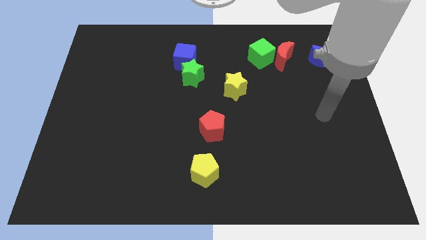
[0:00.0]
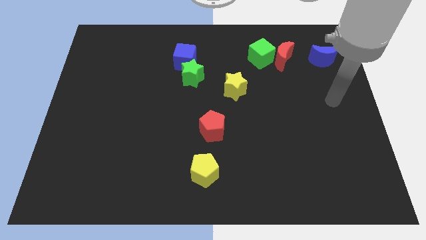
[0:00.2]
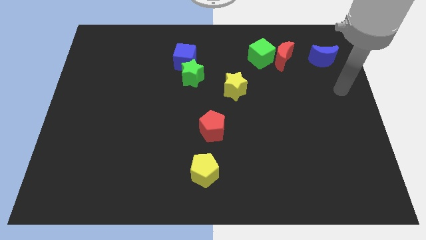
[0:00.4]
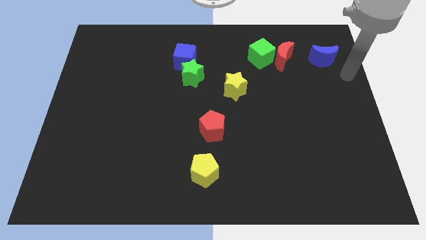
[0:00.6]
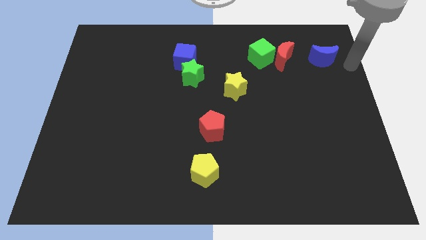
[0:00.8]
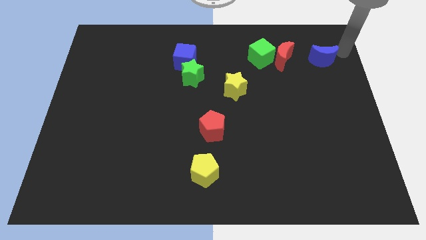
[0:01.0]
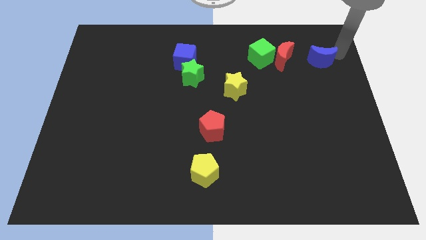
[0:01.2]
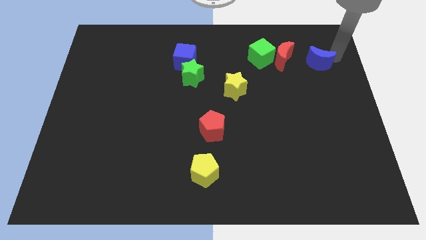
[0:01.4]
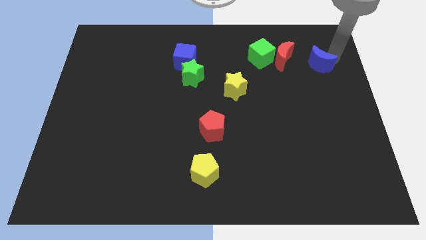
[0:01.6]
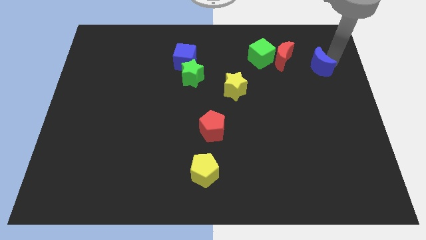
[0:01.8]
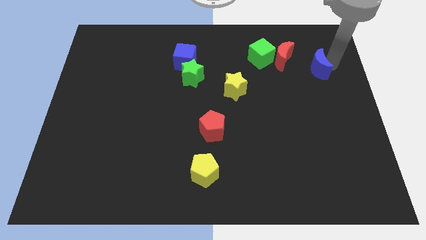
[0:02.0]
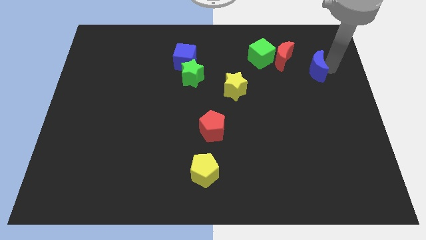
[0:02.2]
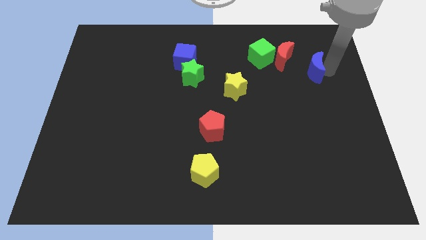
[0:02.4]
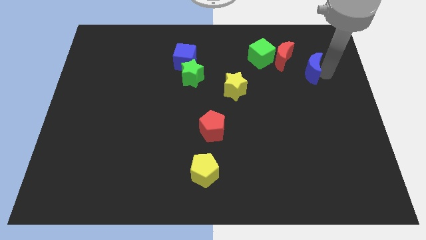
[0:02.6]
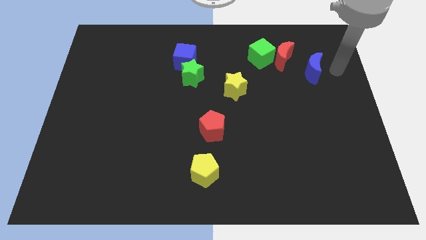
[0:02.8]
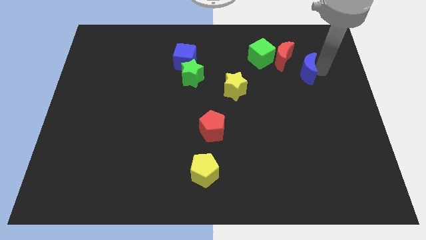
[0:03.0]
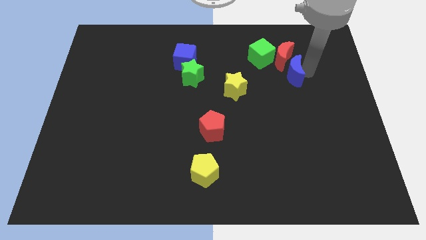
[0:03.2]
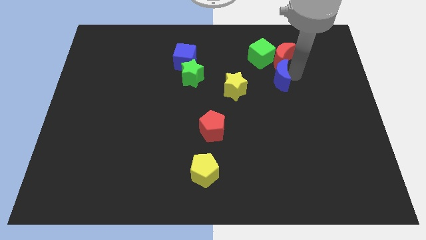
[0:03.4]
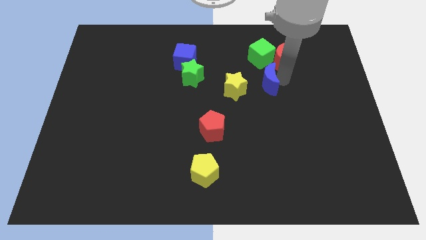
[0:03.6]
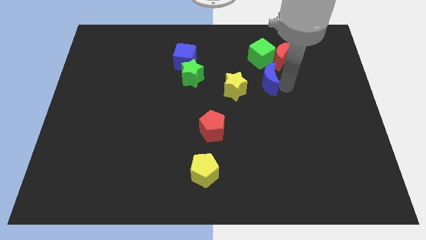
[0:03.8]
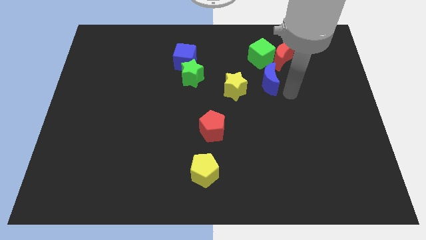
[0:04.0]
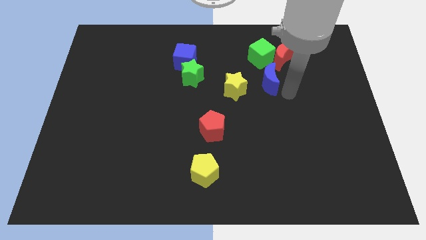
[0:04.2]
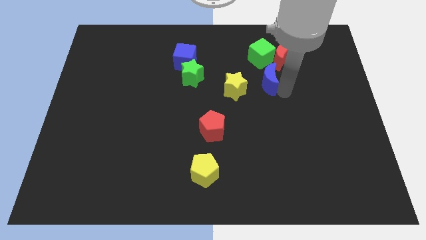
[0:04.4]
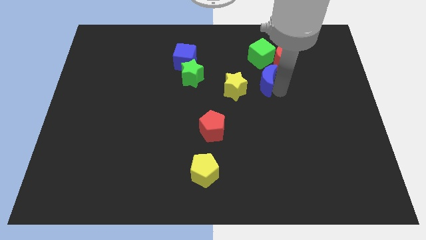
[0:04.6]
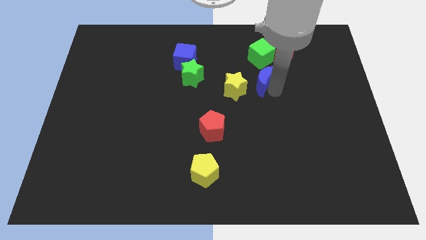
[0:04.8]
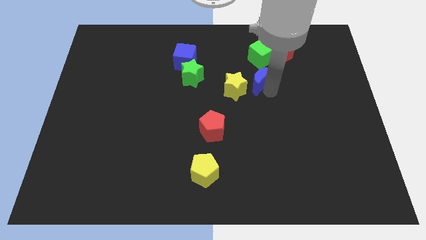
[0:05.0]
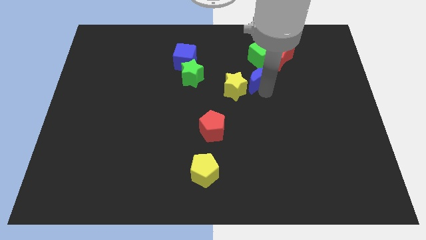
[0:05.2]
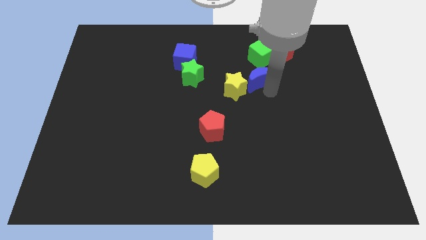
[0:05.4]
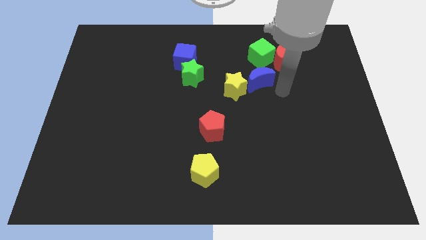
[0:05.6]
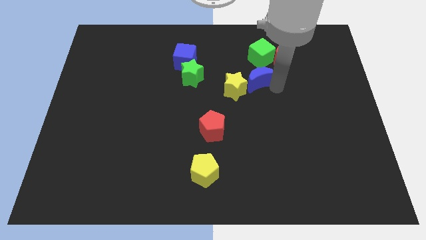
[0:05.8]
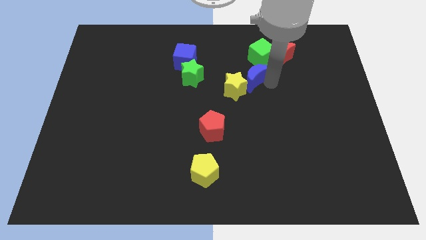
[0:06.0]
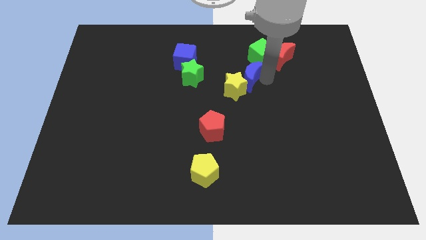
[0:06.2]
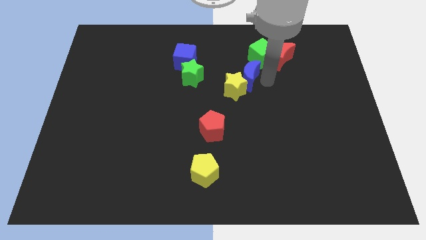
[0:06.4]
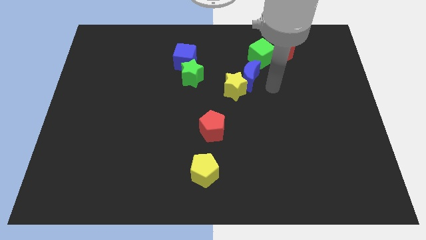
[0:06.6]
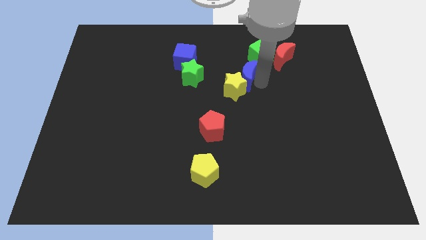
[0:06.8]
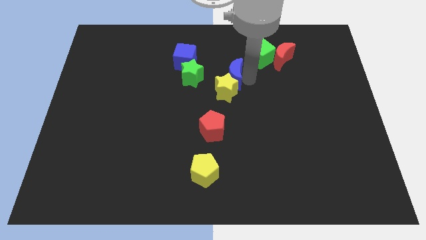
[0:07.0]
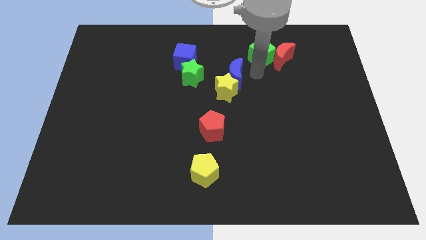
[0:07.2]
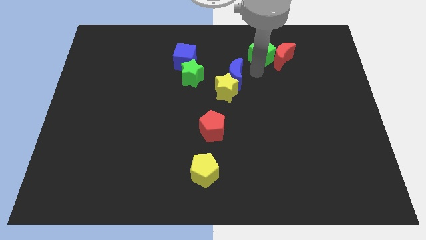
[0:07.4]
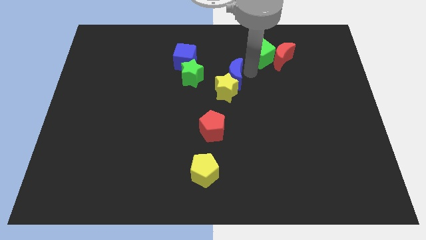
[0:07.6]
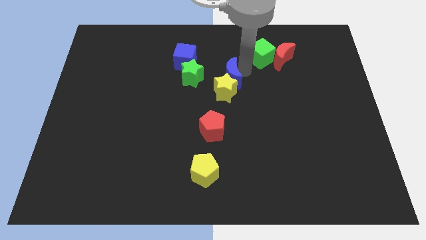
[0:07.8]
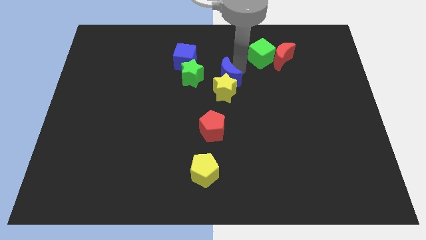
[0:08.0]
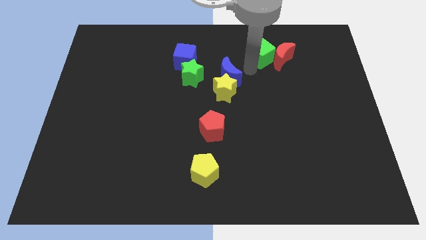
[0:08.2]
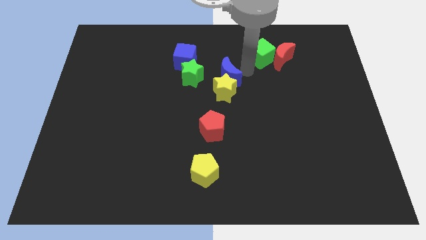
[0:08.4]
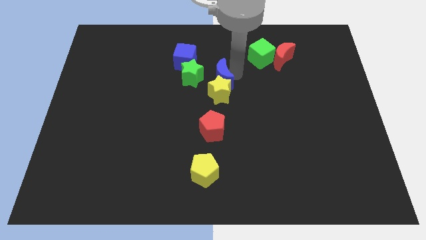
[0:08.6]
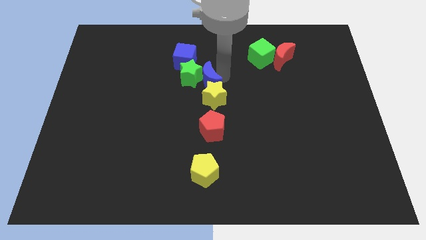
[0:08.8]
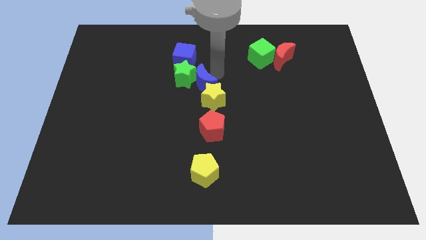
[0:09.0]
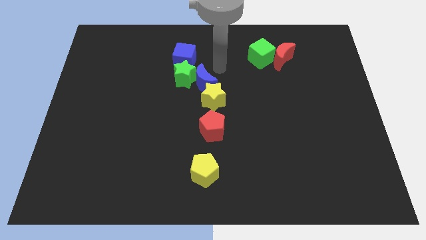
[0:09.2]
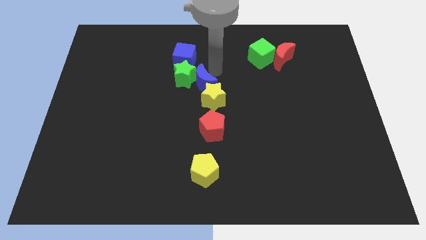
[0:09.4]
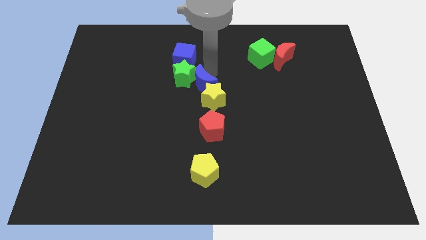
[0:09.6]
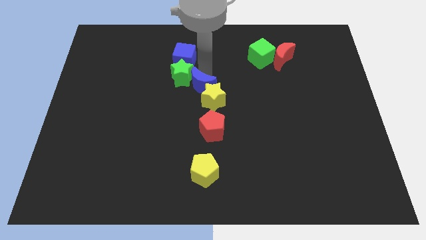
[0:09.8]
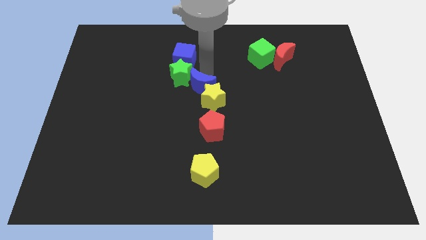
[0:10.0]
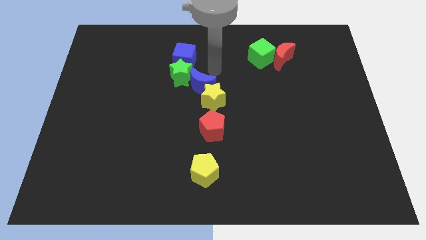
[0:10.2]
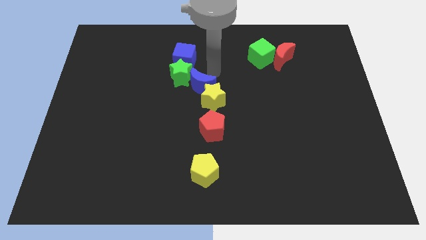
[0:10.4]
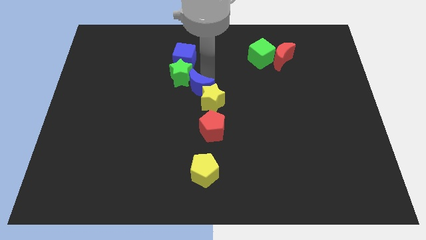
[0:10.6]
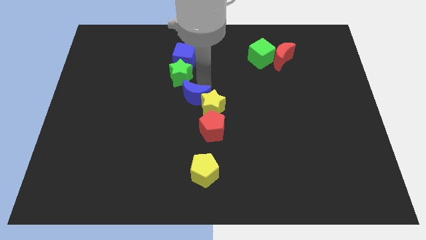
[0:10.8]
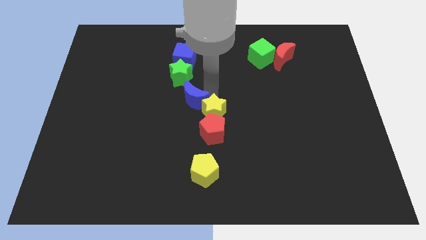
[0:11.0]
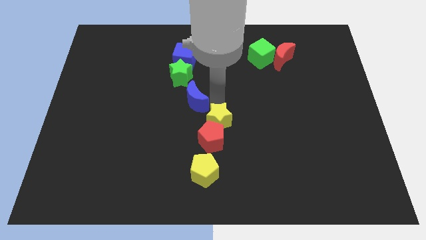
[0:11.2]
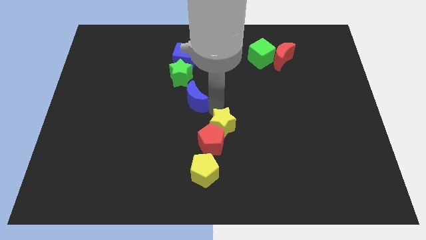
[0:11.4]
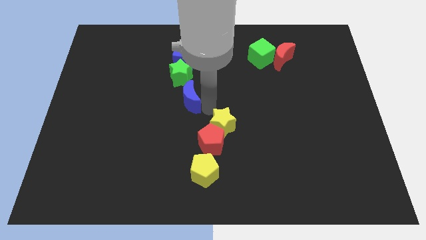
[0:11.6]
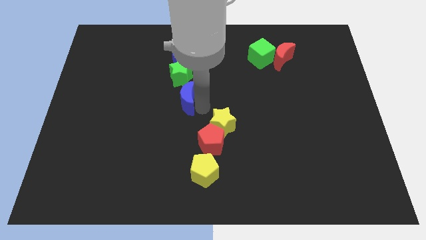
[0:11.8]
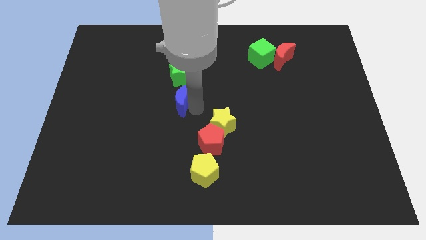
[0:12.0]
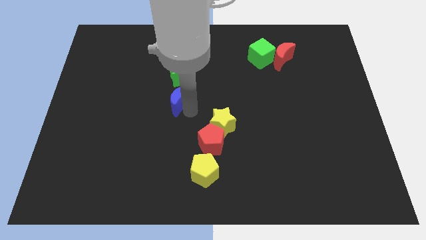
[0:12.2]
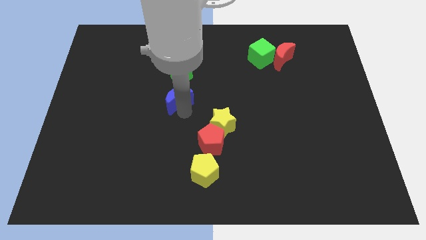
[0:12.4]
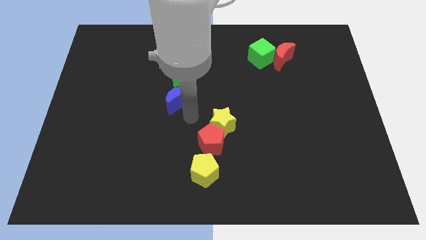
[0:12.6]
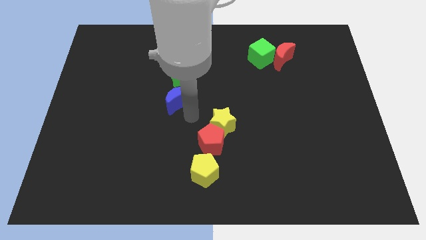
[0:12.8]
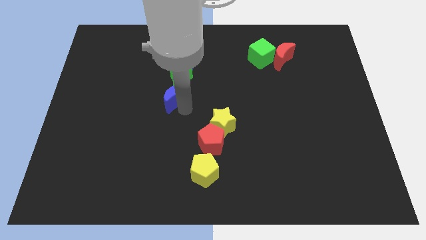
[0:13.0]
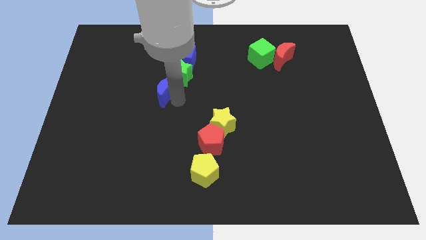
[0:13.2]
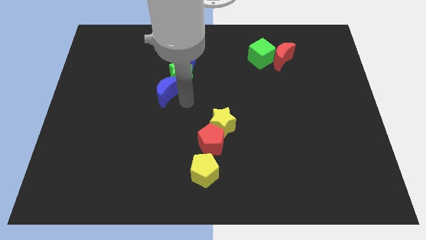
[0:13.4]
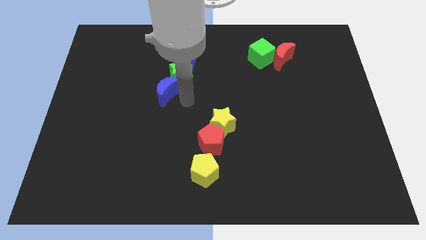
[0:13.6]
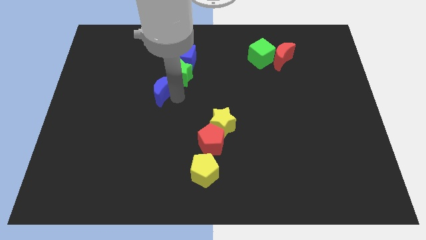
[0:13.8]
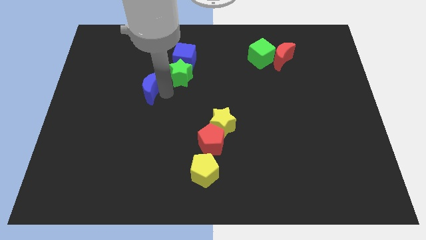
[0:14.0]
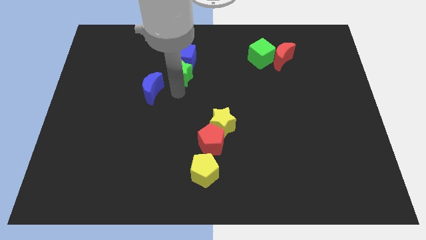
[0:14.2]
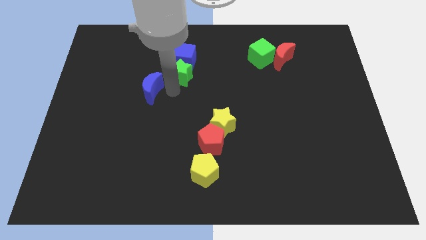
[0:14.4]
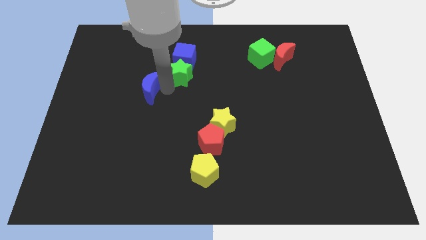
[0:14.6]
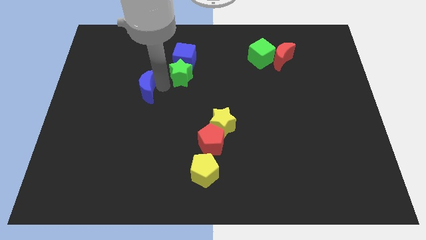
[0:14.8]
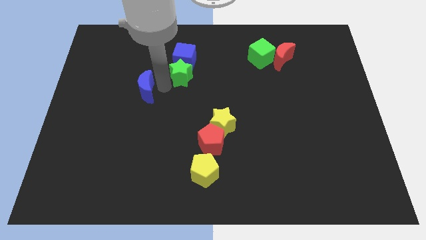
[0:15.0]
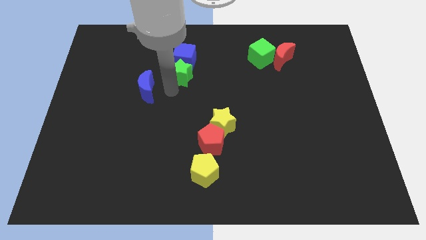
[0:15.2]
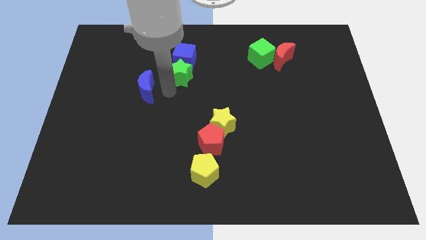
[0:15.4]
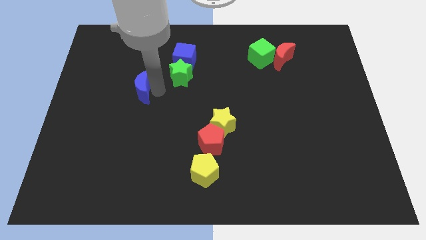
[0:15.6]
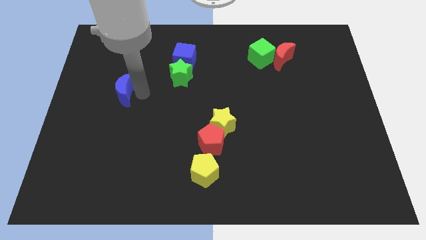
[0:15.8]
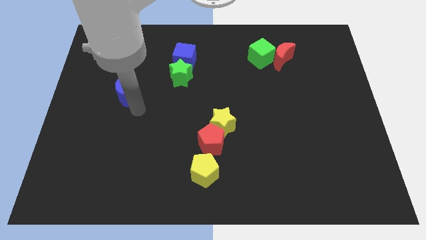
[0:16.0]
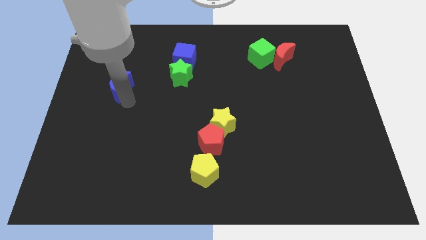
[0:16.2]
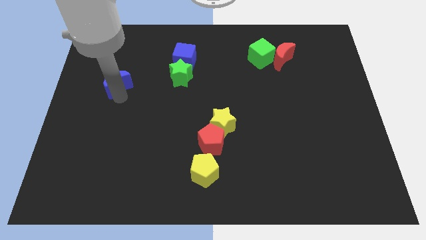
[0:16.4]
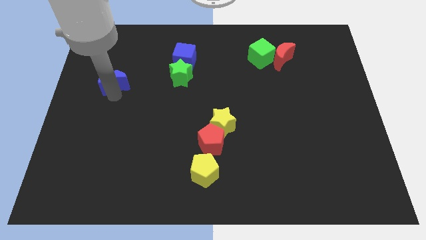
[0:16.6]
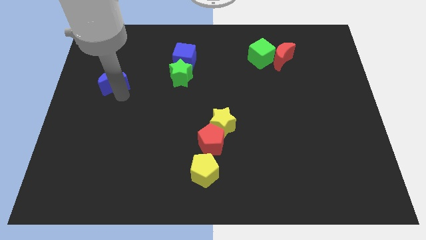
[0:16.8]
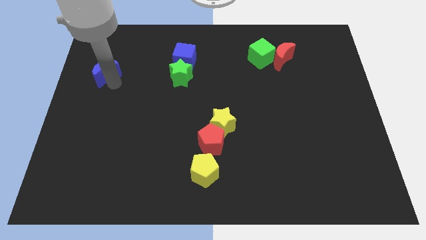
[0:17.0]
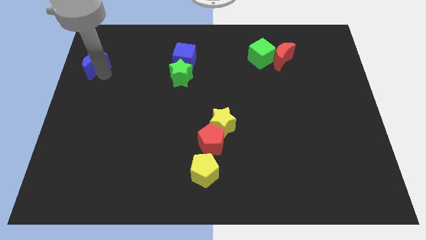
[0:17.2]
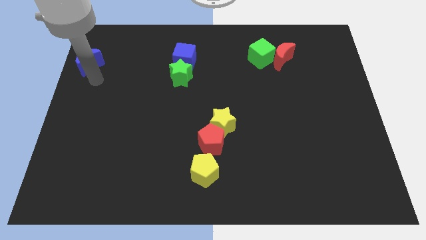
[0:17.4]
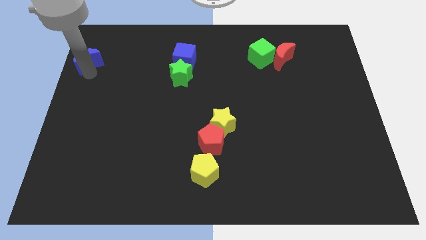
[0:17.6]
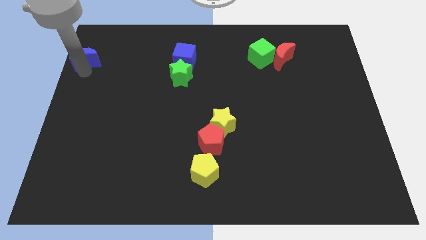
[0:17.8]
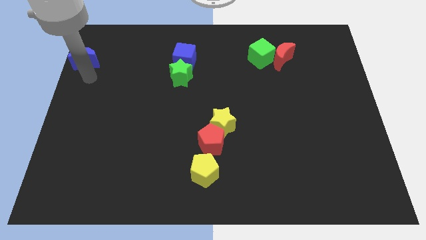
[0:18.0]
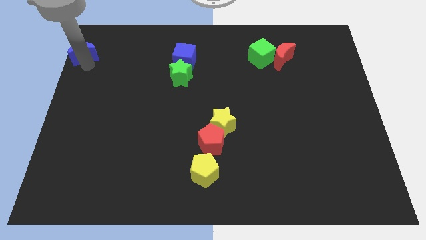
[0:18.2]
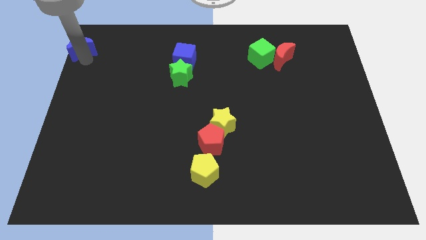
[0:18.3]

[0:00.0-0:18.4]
push the blue moon to the top left corner
